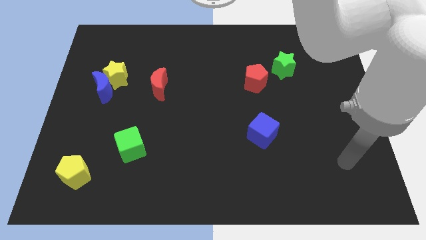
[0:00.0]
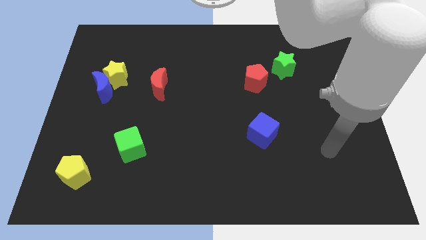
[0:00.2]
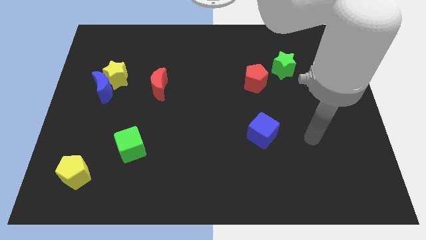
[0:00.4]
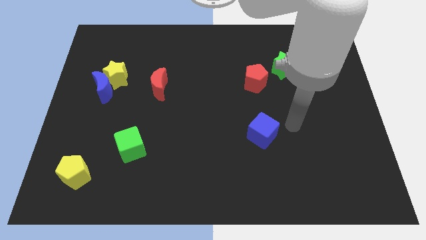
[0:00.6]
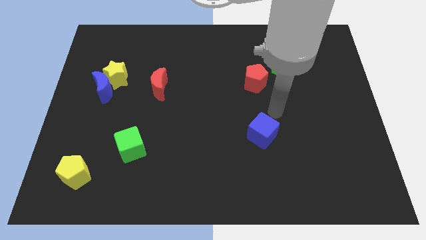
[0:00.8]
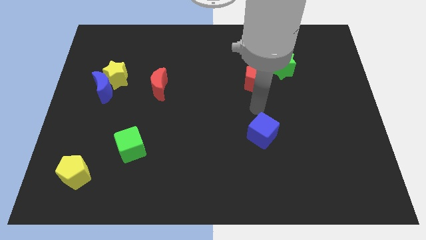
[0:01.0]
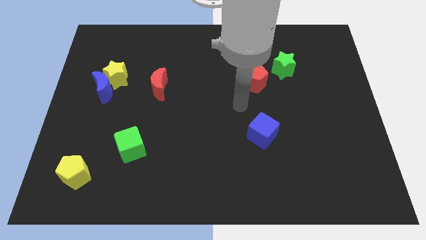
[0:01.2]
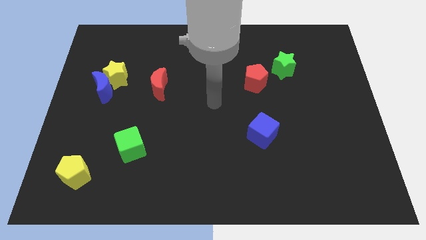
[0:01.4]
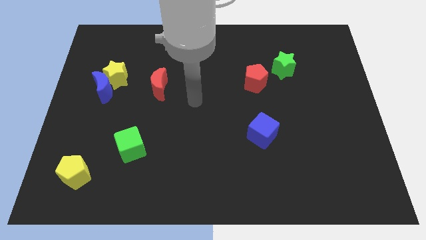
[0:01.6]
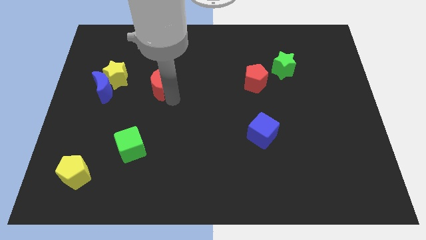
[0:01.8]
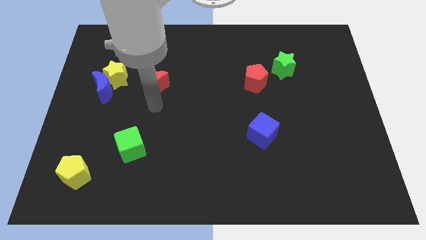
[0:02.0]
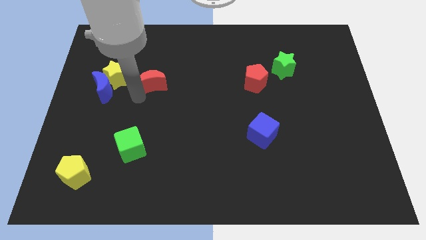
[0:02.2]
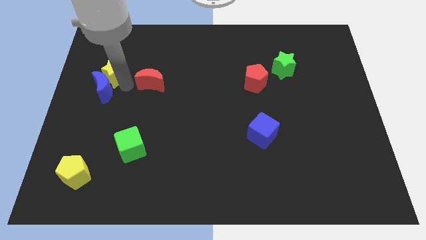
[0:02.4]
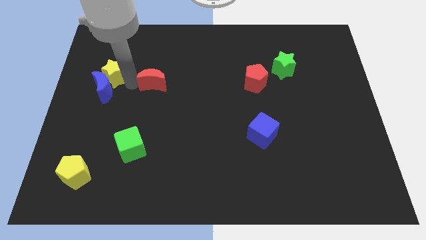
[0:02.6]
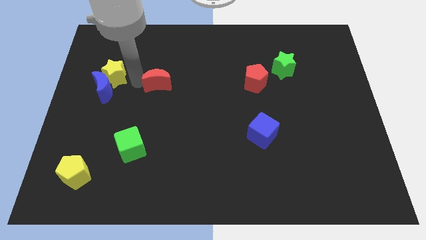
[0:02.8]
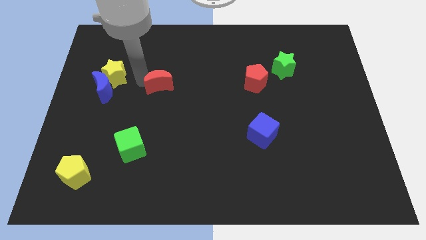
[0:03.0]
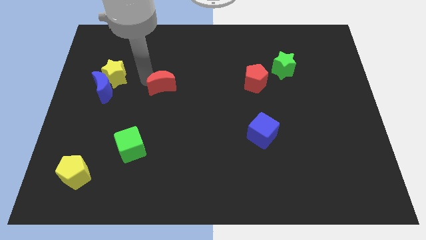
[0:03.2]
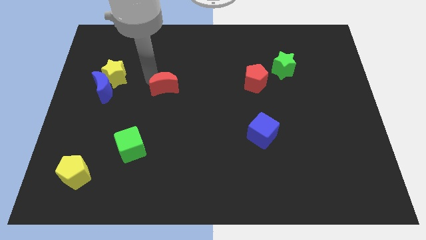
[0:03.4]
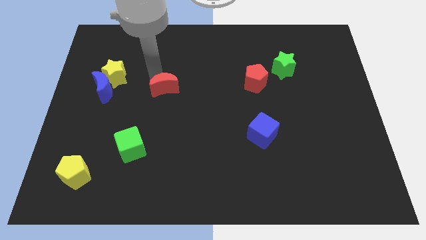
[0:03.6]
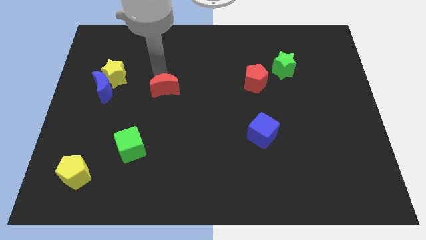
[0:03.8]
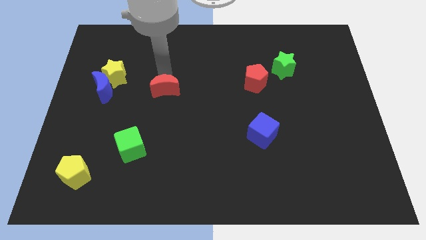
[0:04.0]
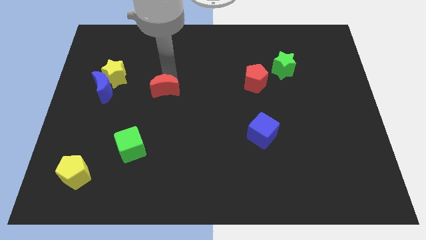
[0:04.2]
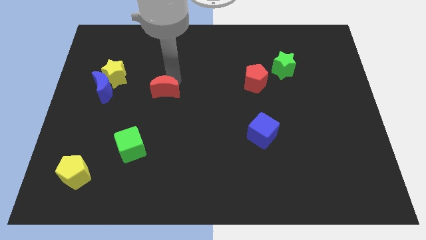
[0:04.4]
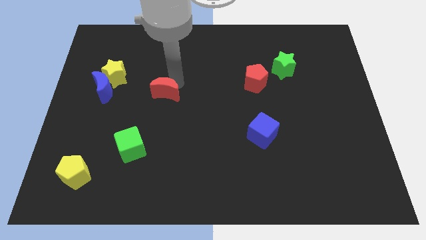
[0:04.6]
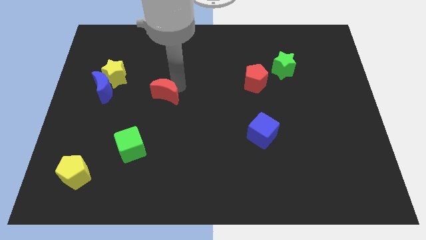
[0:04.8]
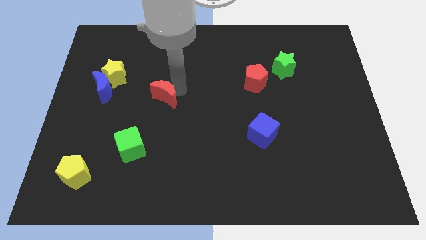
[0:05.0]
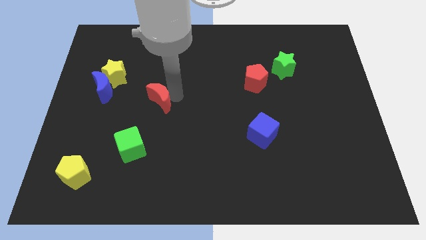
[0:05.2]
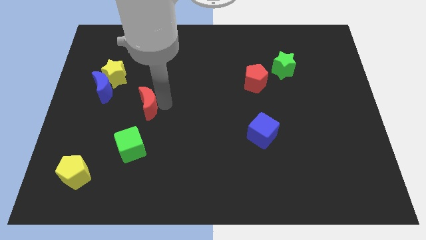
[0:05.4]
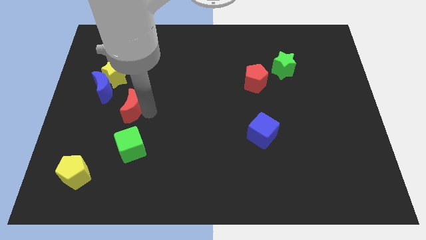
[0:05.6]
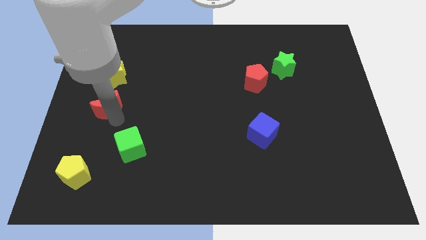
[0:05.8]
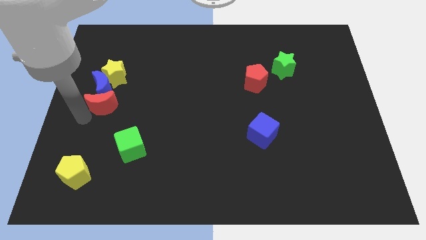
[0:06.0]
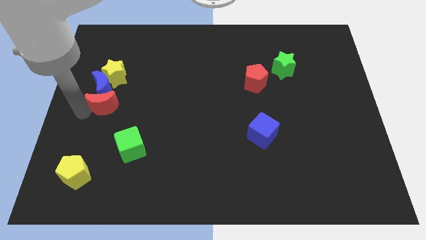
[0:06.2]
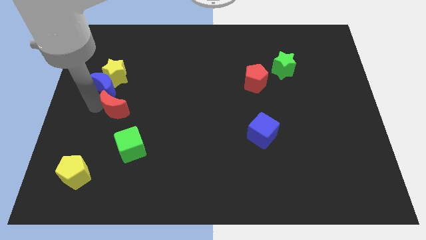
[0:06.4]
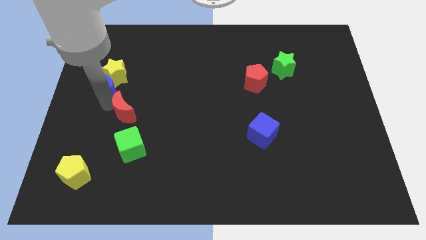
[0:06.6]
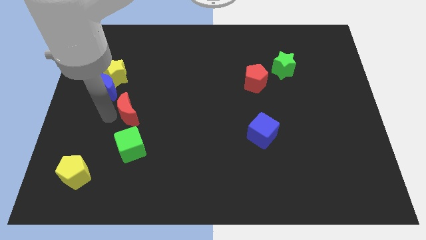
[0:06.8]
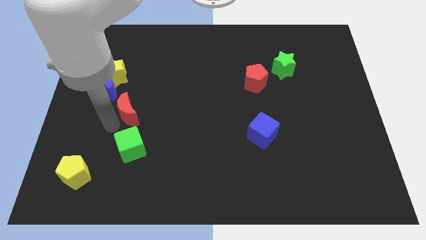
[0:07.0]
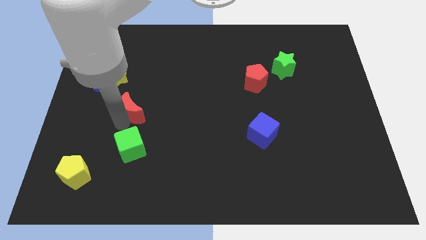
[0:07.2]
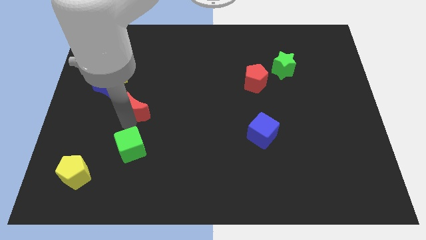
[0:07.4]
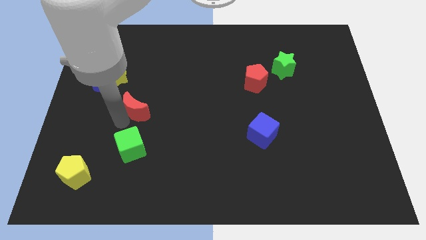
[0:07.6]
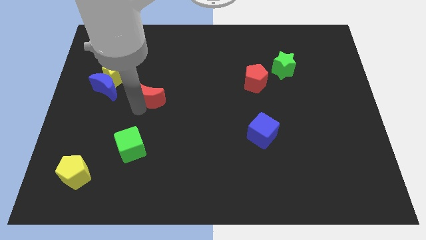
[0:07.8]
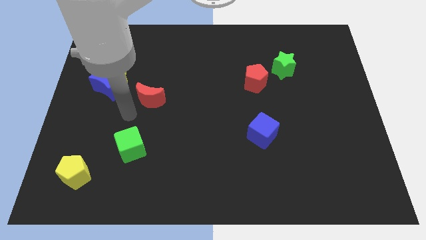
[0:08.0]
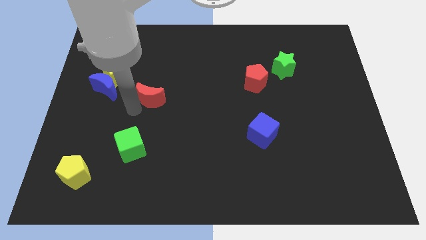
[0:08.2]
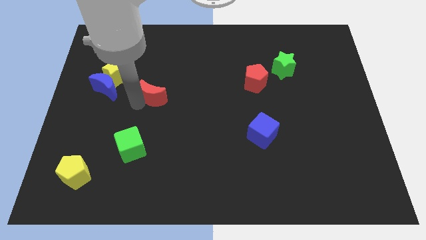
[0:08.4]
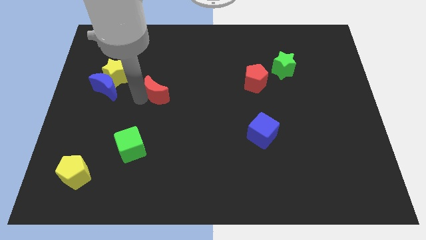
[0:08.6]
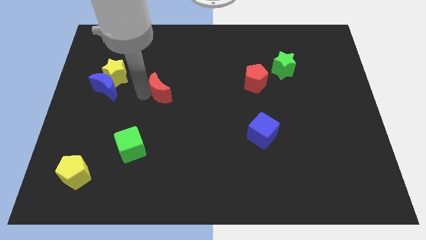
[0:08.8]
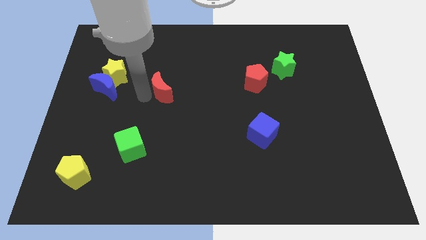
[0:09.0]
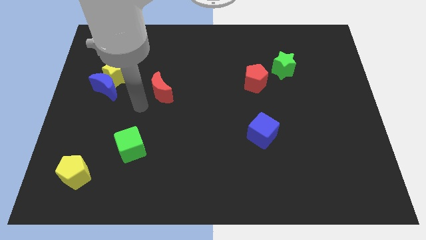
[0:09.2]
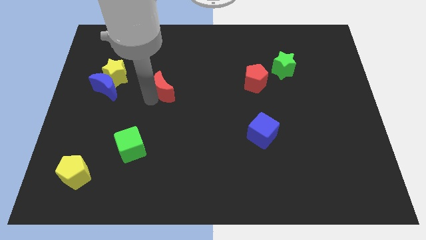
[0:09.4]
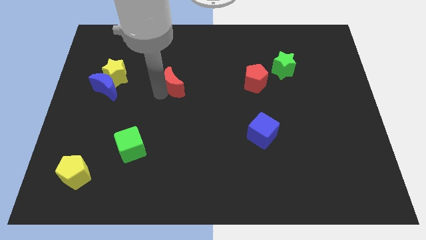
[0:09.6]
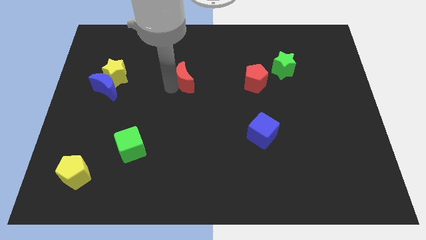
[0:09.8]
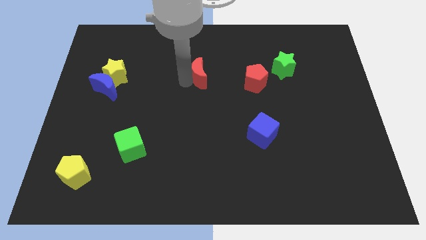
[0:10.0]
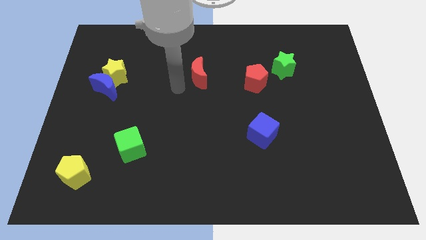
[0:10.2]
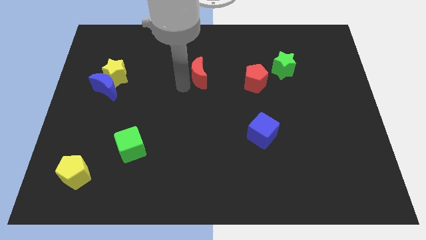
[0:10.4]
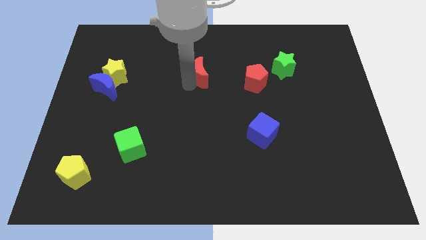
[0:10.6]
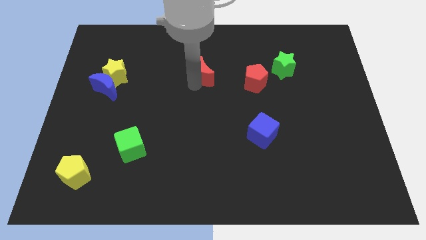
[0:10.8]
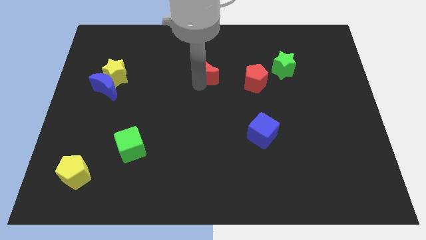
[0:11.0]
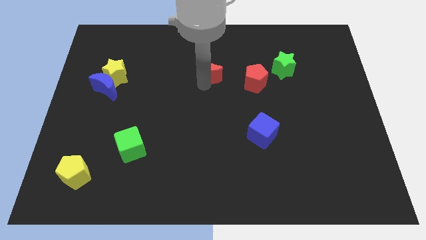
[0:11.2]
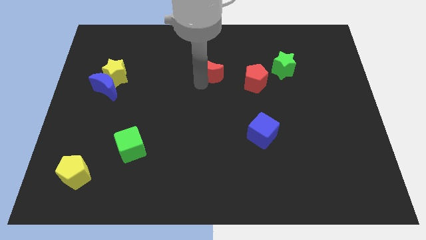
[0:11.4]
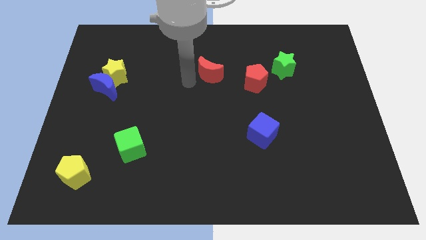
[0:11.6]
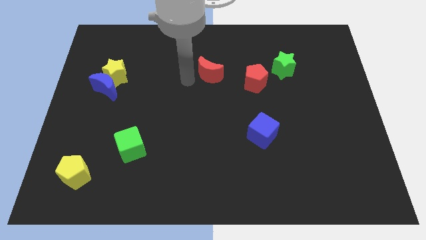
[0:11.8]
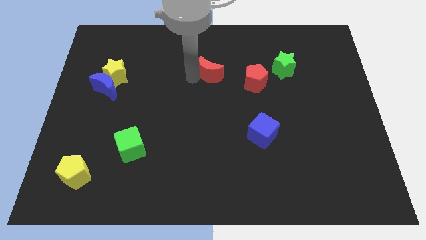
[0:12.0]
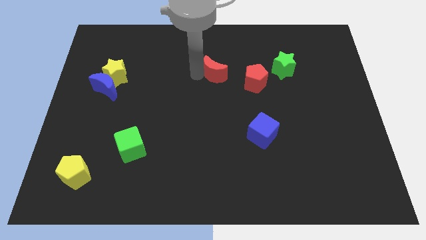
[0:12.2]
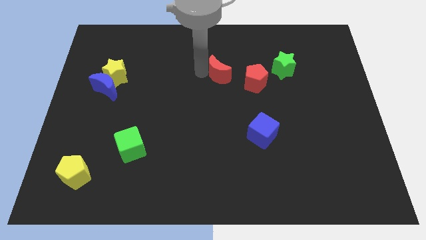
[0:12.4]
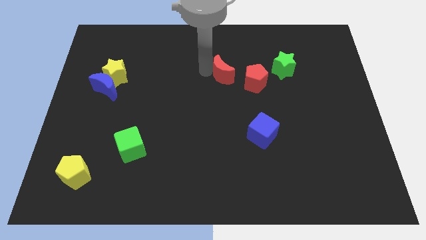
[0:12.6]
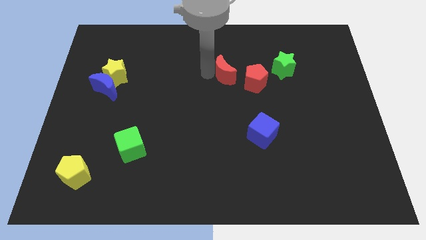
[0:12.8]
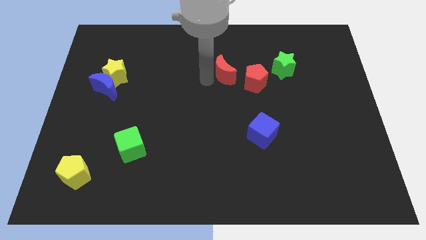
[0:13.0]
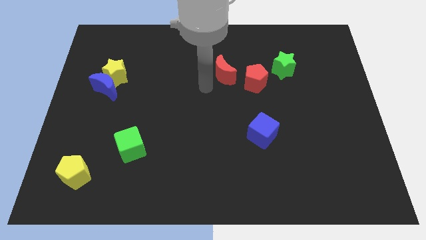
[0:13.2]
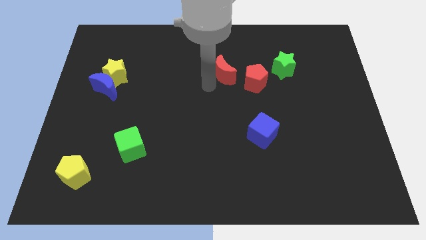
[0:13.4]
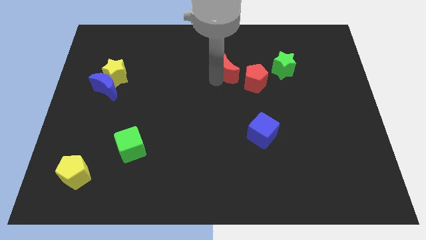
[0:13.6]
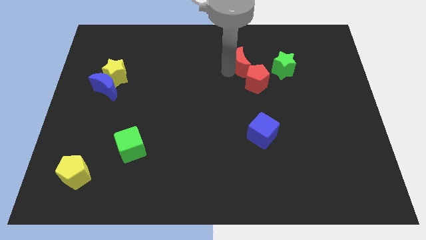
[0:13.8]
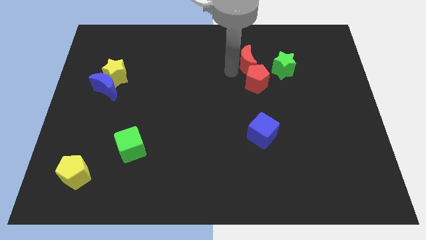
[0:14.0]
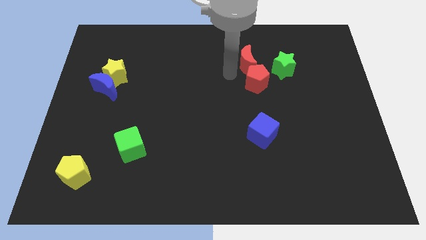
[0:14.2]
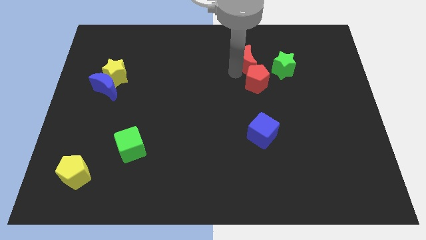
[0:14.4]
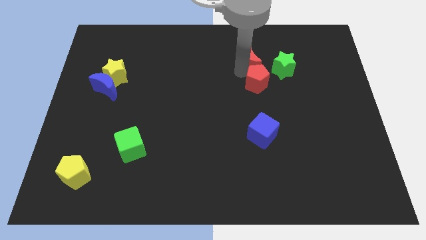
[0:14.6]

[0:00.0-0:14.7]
push the red moon to the top left of the green star
